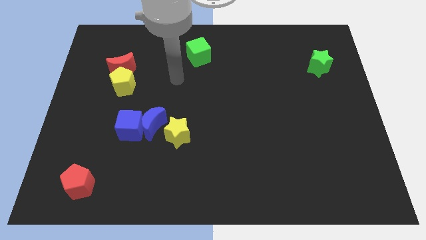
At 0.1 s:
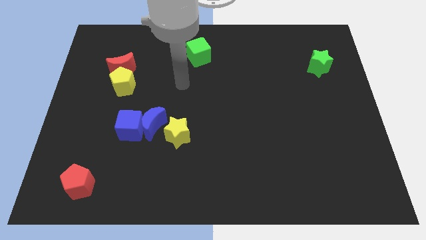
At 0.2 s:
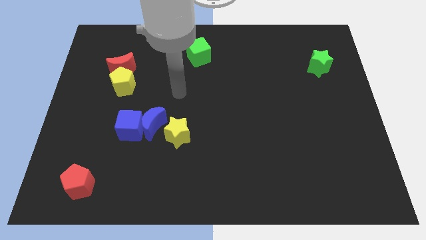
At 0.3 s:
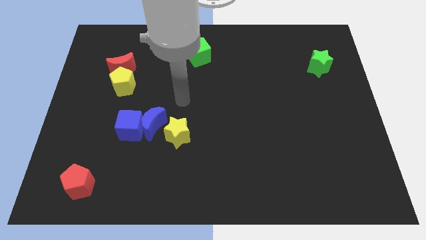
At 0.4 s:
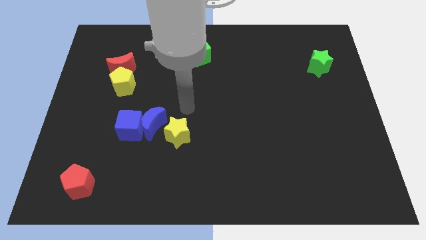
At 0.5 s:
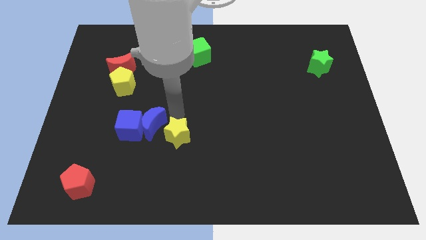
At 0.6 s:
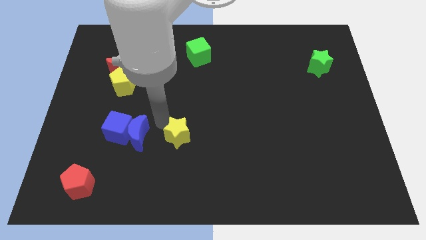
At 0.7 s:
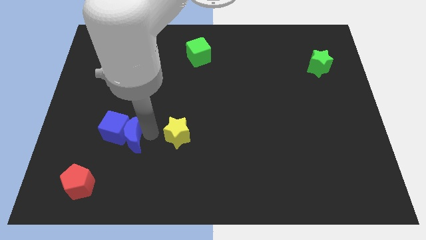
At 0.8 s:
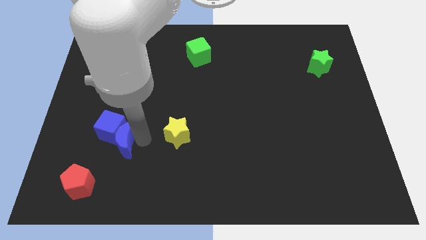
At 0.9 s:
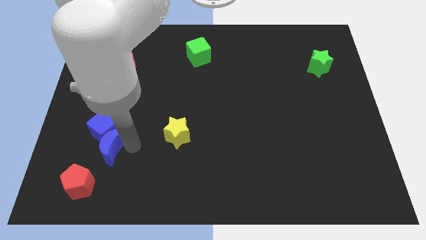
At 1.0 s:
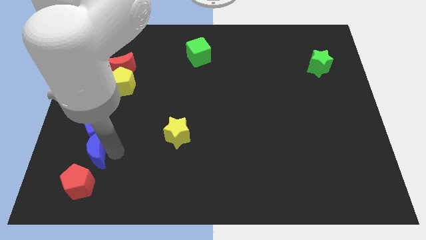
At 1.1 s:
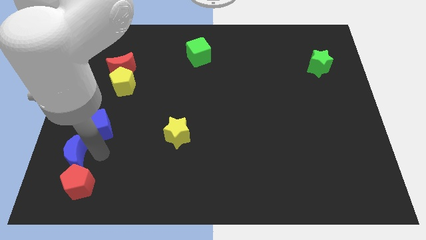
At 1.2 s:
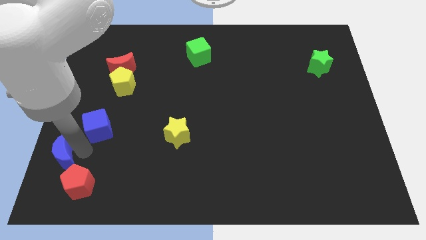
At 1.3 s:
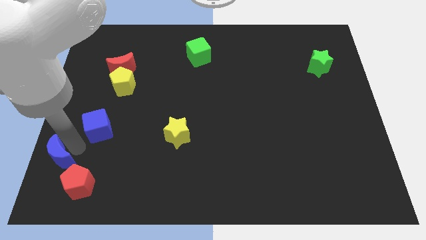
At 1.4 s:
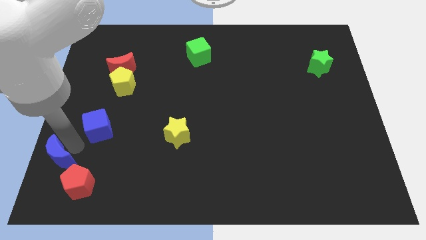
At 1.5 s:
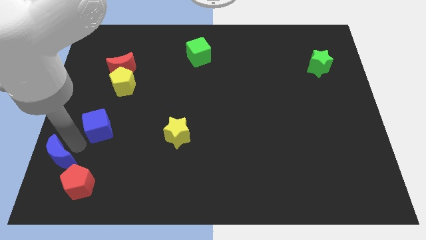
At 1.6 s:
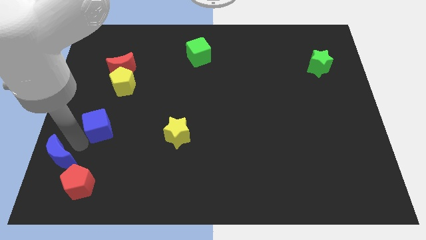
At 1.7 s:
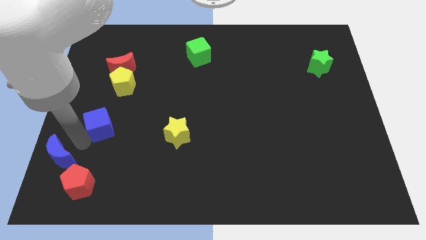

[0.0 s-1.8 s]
pull the blue cube apart from the blue moon

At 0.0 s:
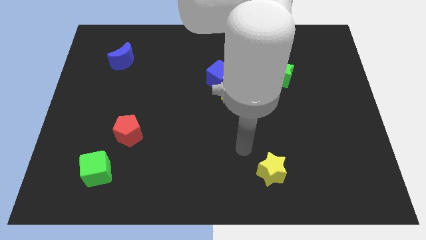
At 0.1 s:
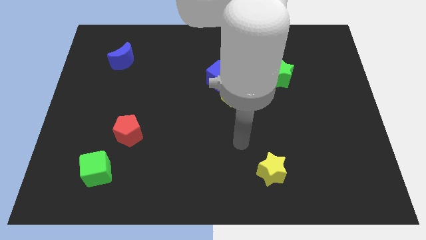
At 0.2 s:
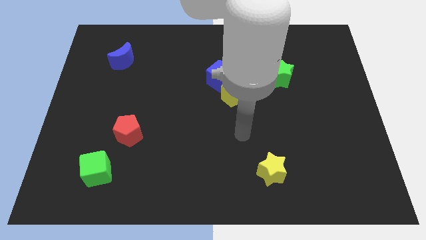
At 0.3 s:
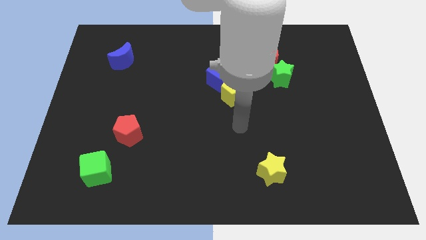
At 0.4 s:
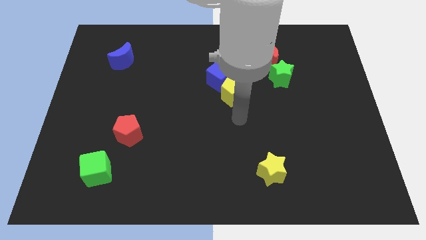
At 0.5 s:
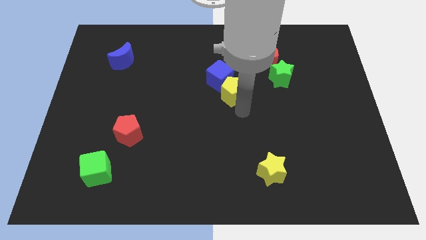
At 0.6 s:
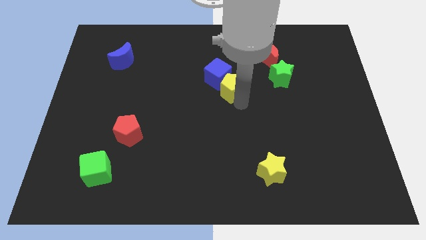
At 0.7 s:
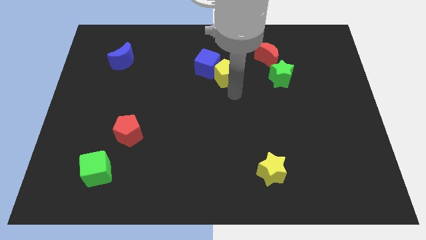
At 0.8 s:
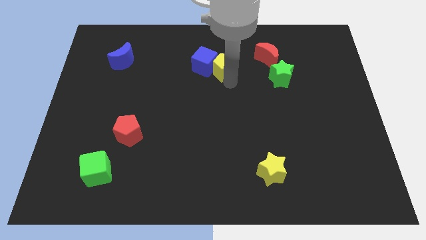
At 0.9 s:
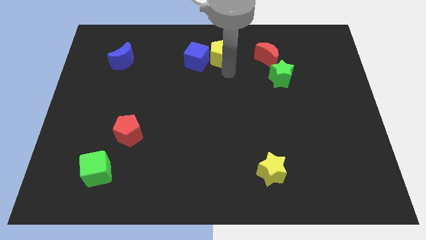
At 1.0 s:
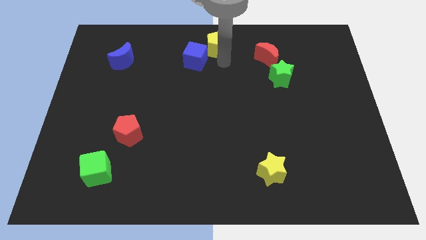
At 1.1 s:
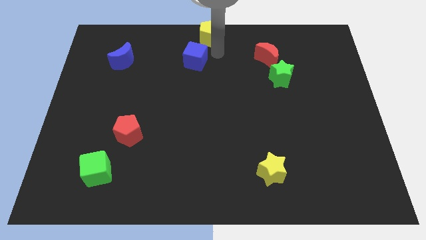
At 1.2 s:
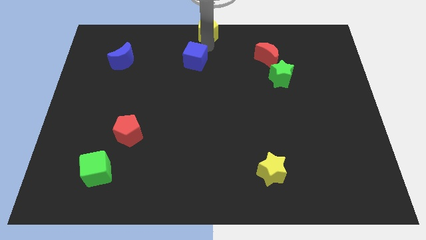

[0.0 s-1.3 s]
pull the blue cube apart from the yellow pentagon

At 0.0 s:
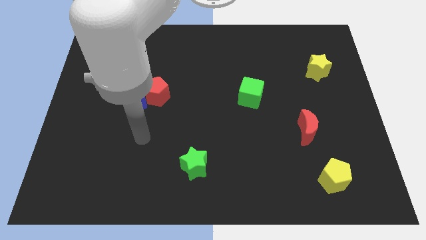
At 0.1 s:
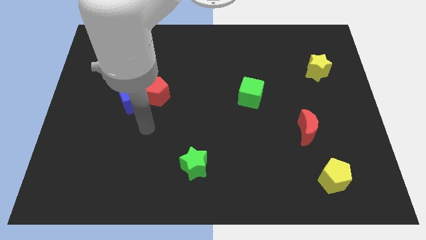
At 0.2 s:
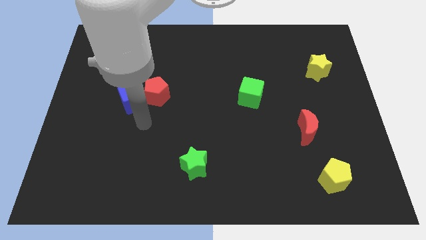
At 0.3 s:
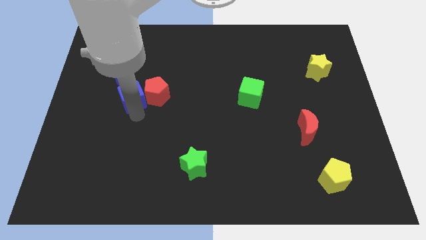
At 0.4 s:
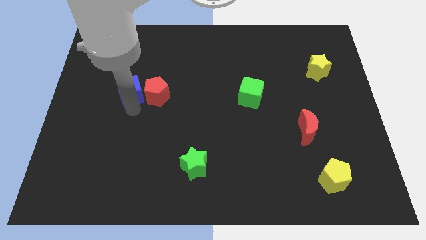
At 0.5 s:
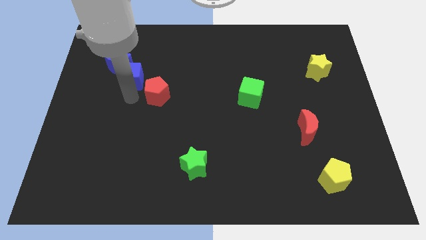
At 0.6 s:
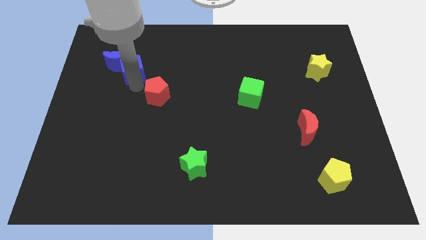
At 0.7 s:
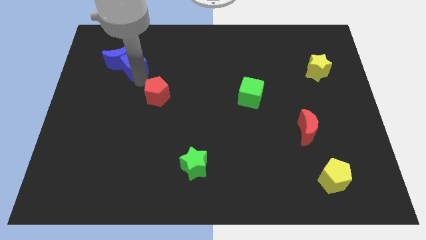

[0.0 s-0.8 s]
separate the red pentagon from the blue cube

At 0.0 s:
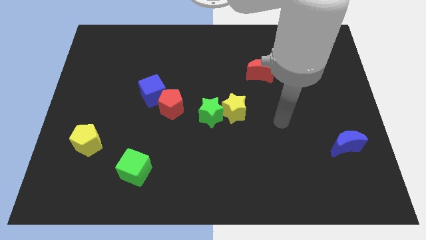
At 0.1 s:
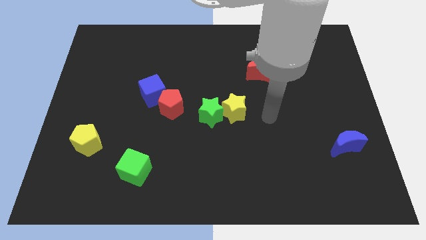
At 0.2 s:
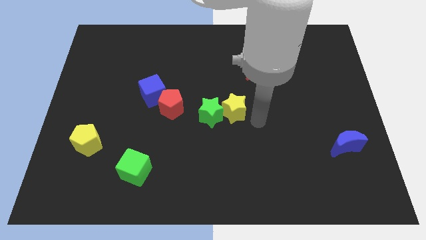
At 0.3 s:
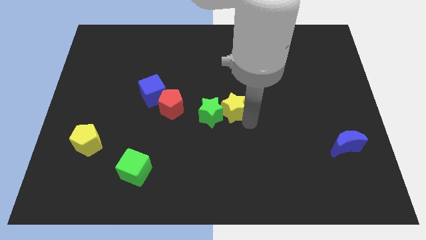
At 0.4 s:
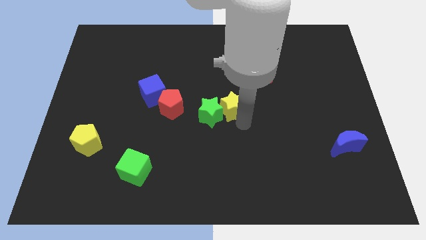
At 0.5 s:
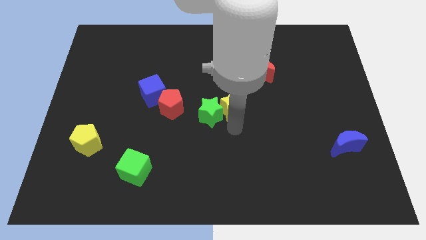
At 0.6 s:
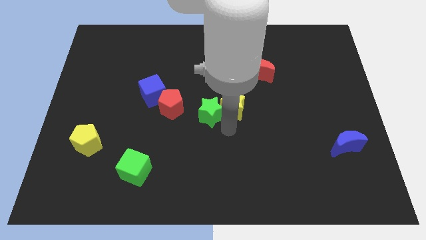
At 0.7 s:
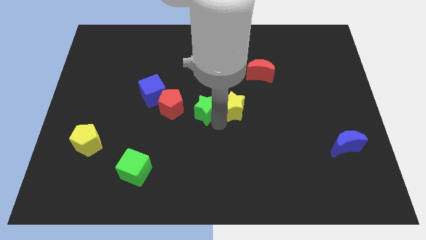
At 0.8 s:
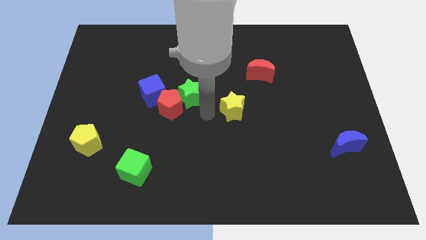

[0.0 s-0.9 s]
separate the yellow star from the green star

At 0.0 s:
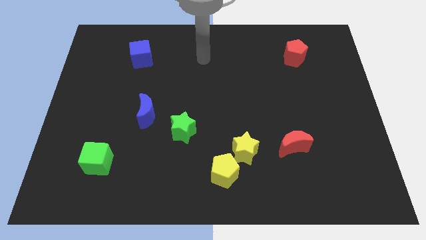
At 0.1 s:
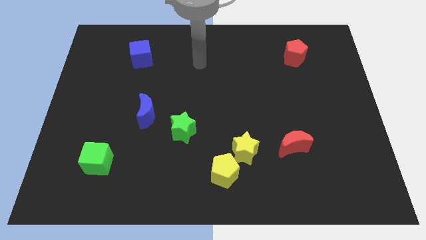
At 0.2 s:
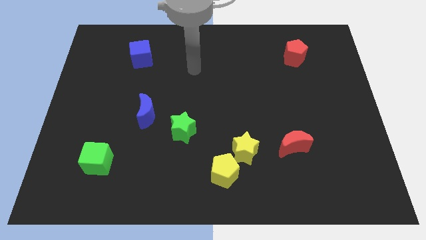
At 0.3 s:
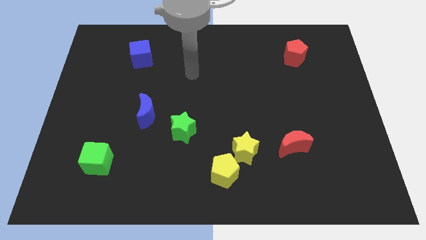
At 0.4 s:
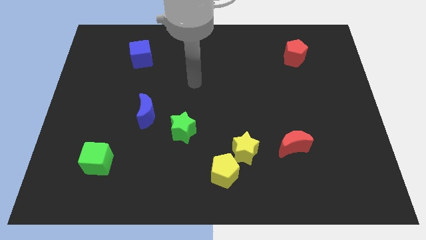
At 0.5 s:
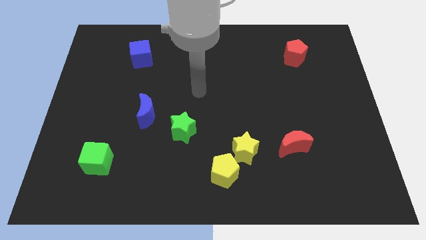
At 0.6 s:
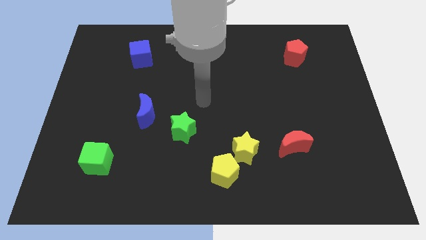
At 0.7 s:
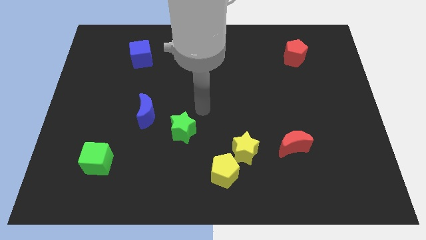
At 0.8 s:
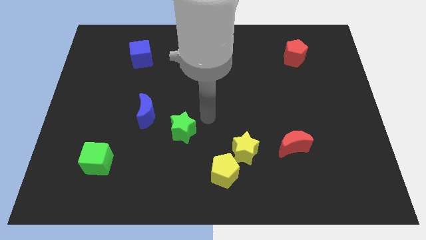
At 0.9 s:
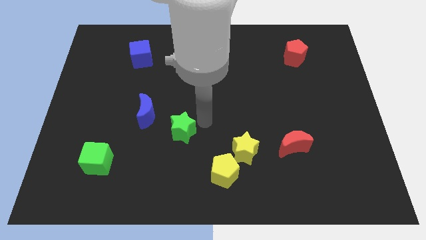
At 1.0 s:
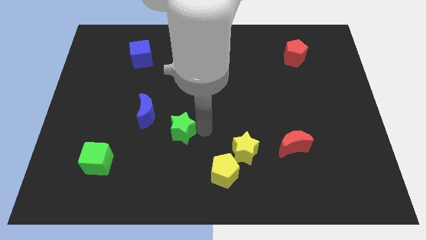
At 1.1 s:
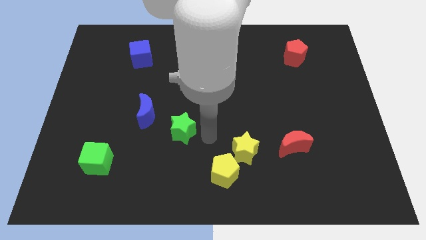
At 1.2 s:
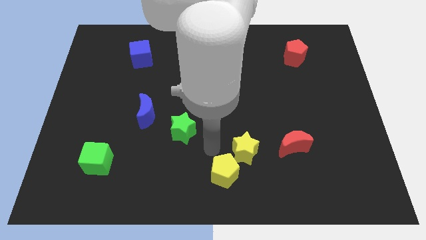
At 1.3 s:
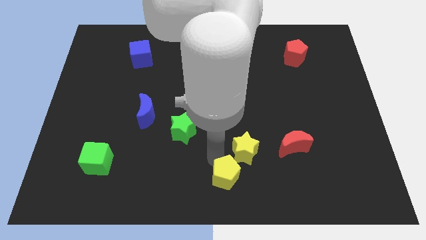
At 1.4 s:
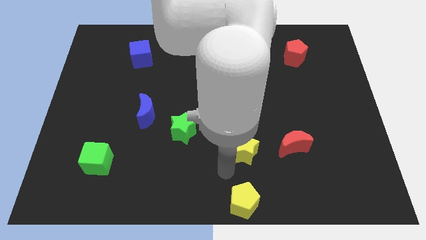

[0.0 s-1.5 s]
separate the yellow star from the yellow pentagon

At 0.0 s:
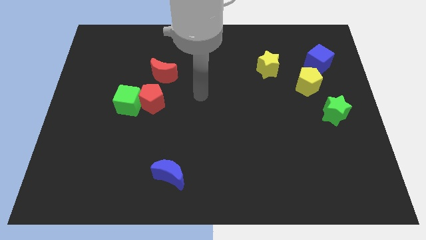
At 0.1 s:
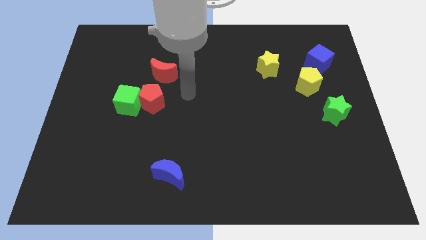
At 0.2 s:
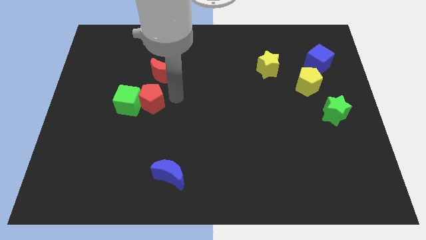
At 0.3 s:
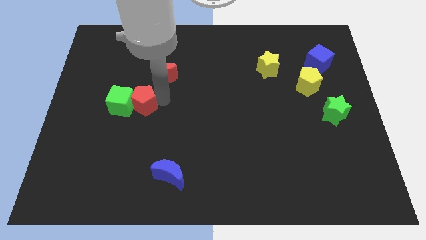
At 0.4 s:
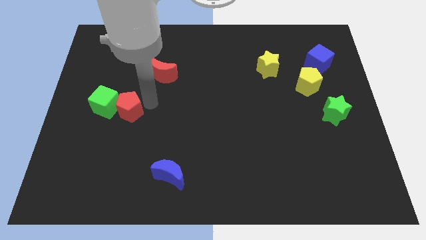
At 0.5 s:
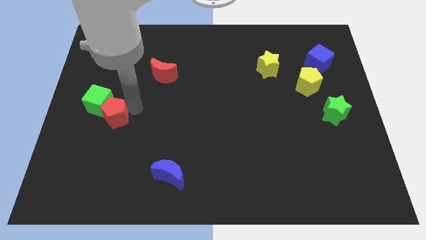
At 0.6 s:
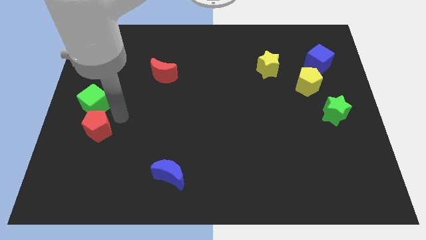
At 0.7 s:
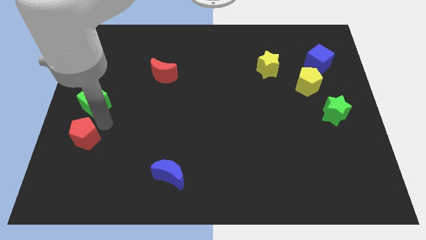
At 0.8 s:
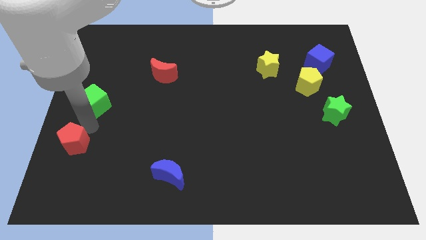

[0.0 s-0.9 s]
move the green cube away from the red pentagon

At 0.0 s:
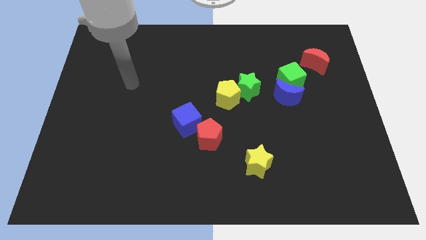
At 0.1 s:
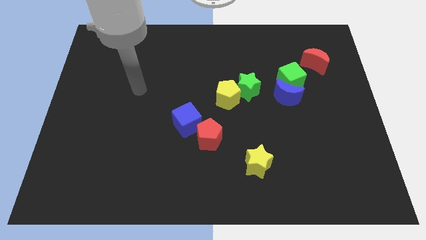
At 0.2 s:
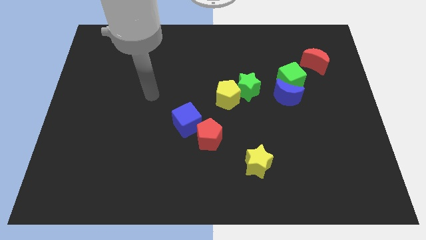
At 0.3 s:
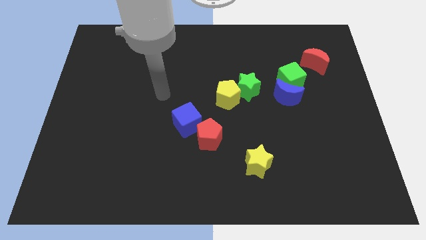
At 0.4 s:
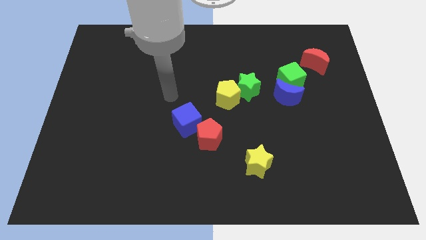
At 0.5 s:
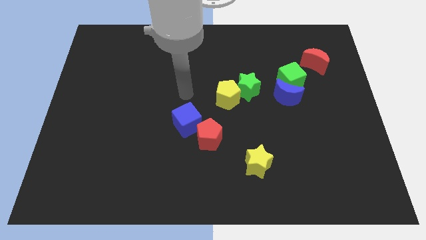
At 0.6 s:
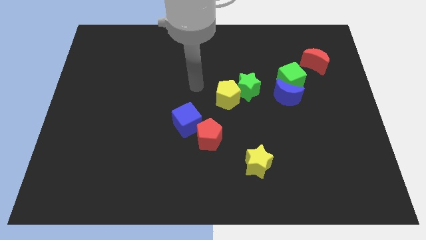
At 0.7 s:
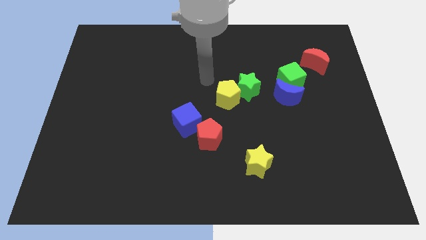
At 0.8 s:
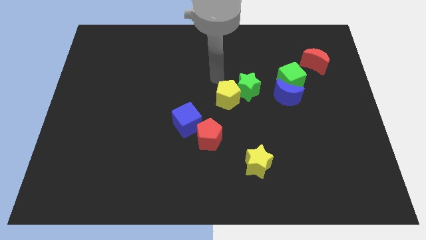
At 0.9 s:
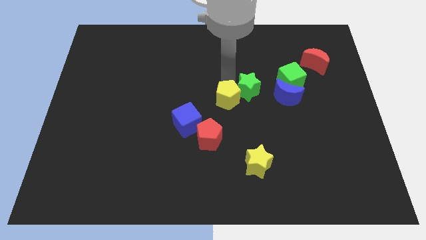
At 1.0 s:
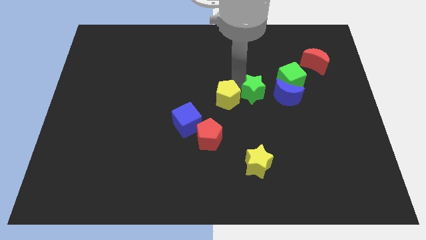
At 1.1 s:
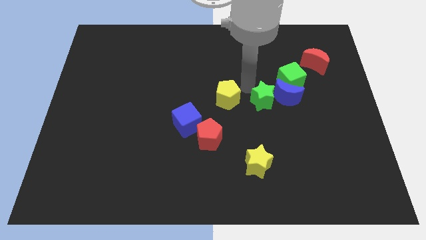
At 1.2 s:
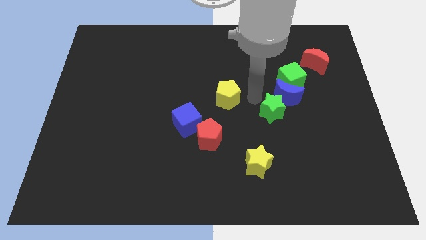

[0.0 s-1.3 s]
separate the yellow pentagon from the green star

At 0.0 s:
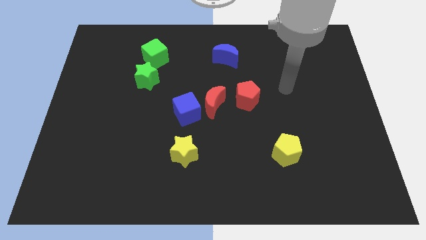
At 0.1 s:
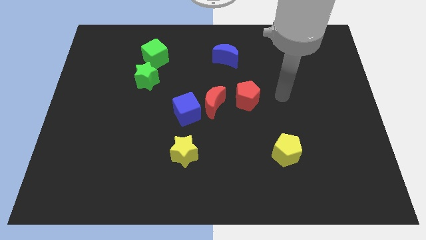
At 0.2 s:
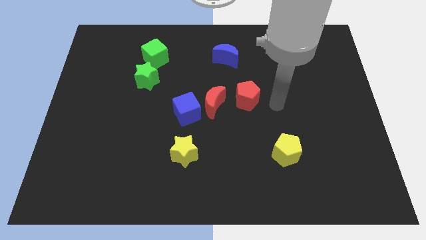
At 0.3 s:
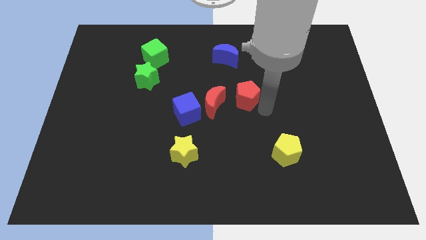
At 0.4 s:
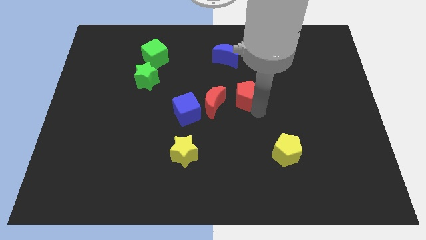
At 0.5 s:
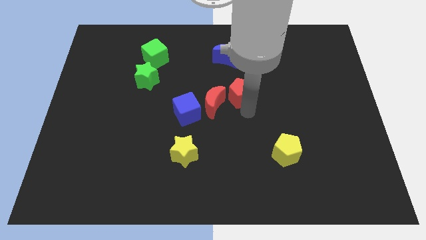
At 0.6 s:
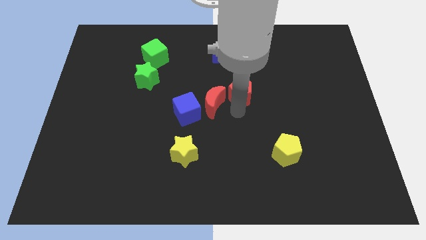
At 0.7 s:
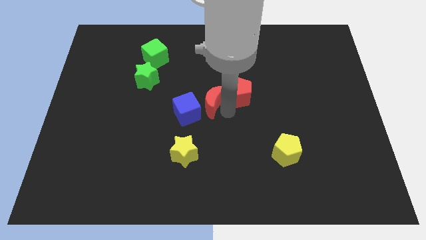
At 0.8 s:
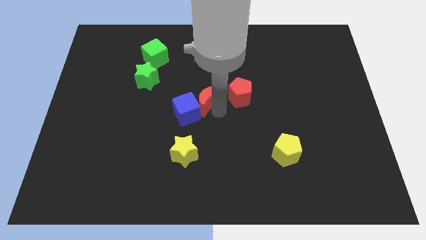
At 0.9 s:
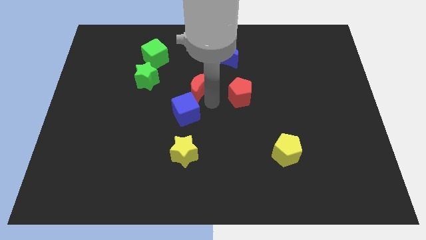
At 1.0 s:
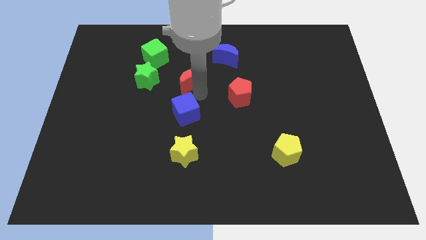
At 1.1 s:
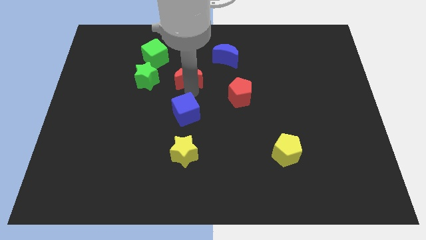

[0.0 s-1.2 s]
move the blue cube away from the red moon
